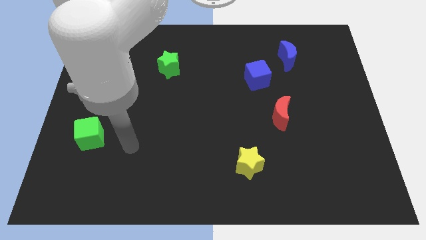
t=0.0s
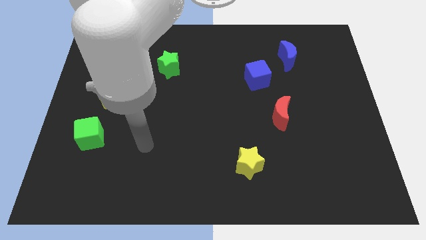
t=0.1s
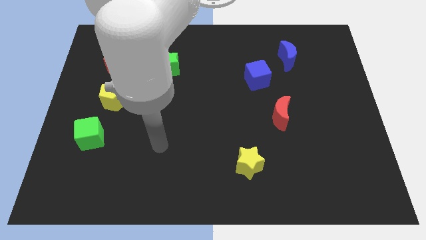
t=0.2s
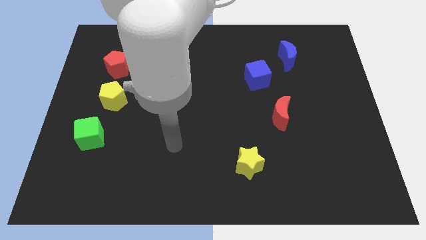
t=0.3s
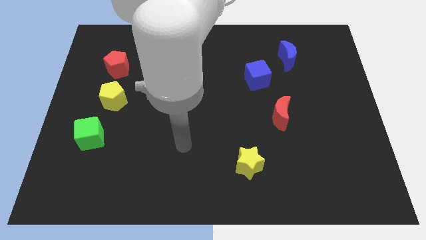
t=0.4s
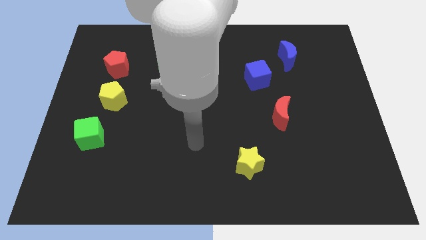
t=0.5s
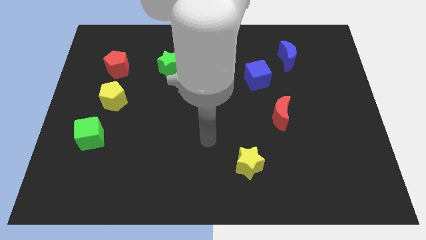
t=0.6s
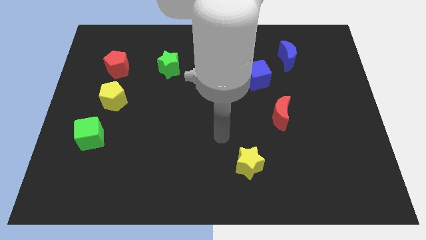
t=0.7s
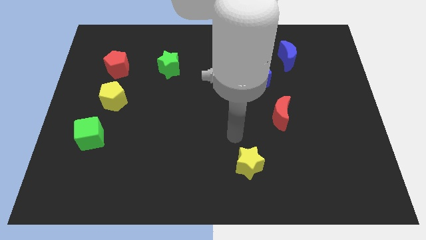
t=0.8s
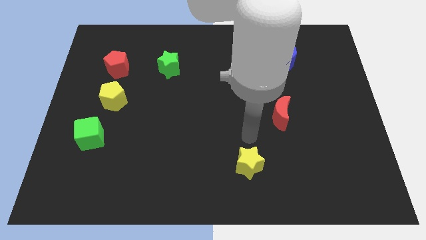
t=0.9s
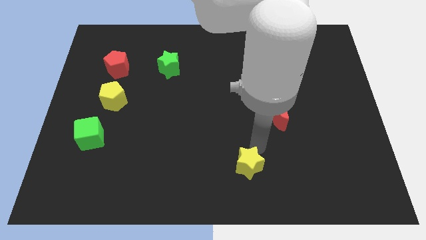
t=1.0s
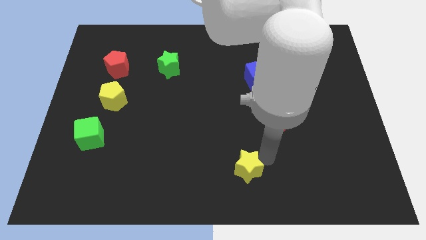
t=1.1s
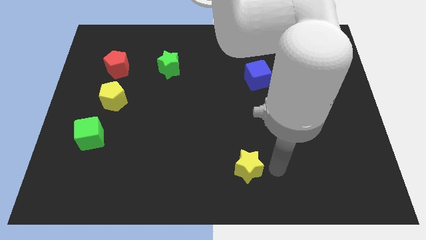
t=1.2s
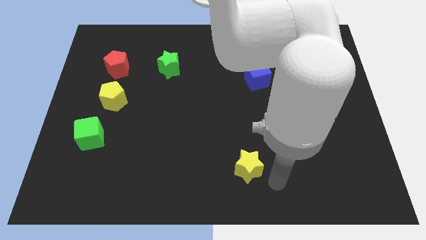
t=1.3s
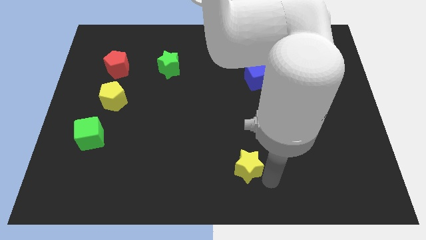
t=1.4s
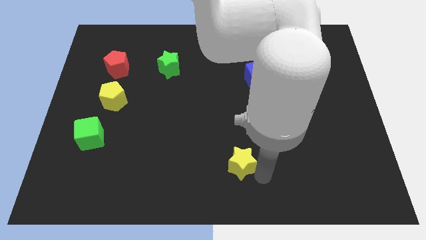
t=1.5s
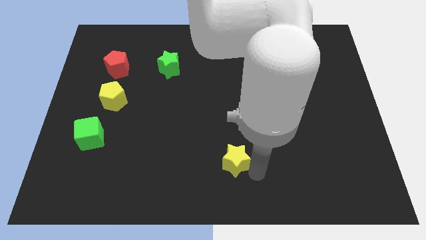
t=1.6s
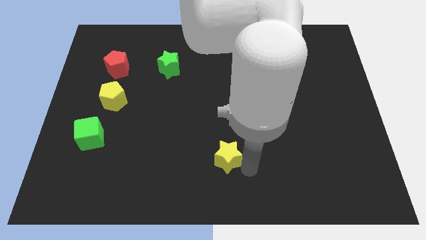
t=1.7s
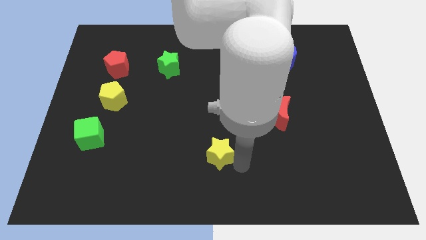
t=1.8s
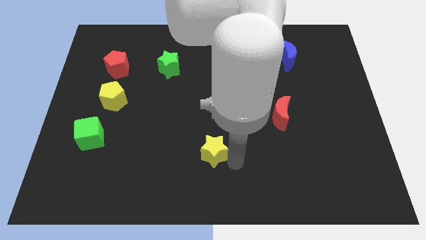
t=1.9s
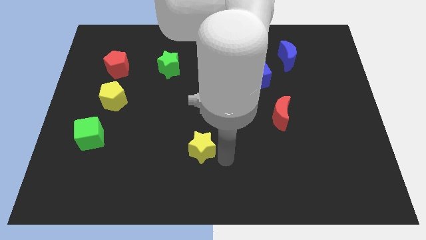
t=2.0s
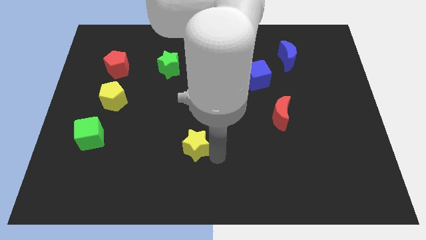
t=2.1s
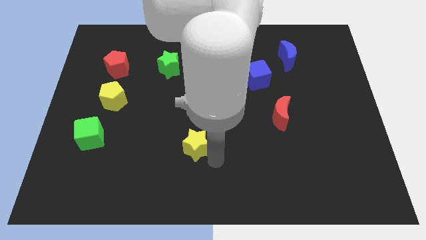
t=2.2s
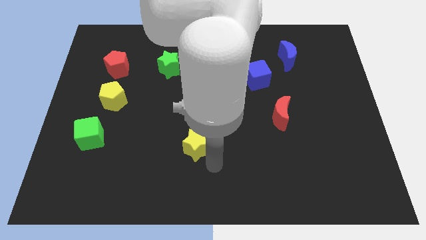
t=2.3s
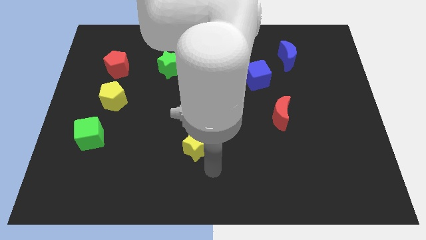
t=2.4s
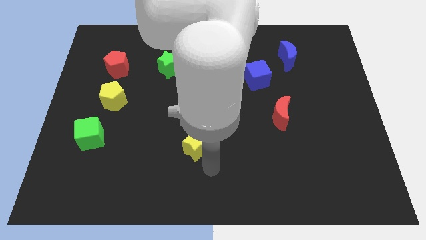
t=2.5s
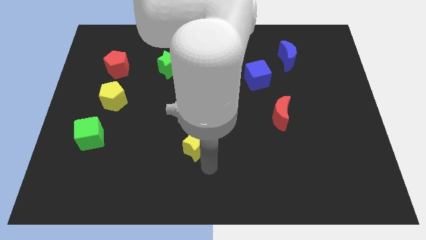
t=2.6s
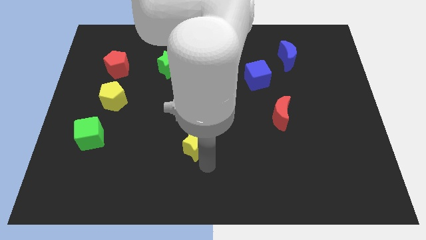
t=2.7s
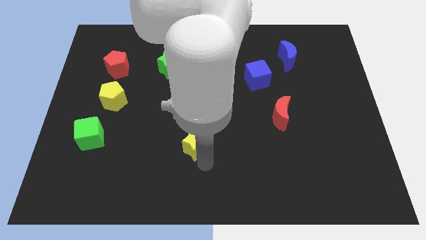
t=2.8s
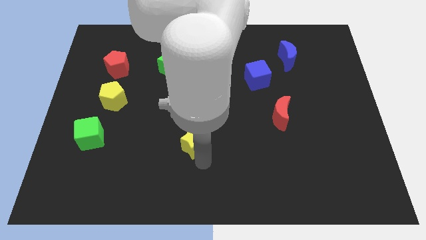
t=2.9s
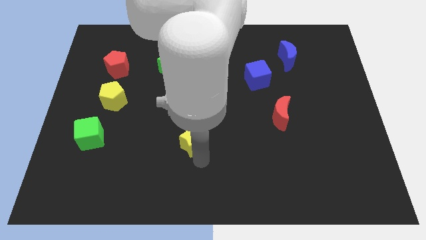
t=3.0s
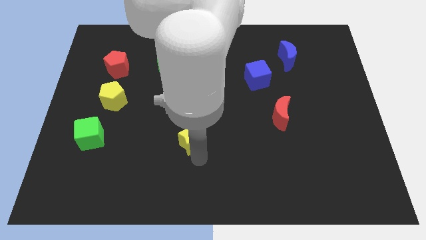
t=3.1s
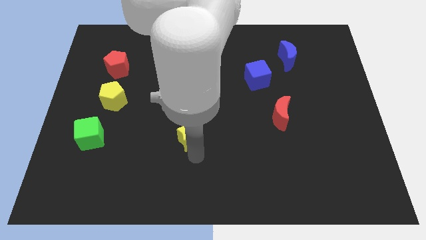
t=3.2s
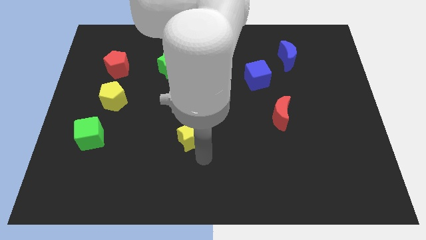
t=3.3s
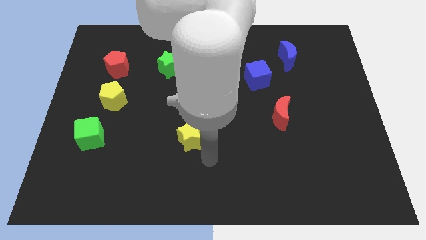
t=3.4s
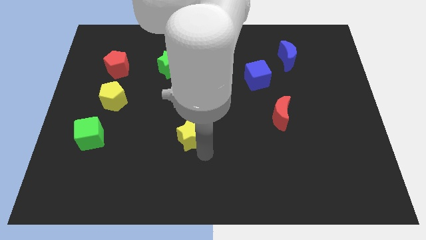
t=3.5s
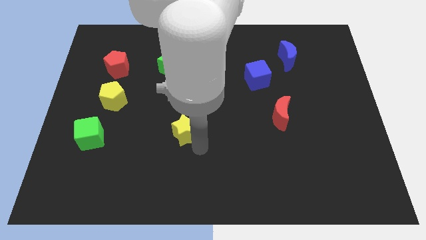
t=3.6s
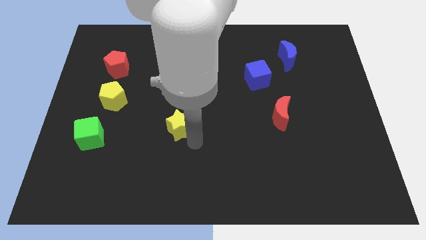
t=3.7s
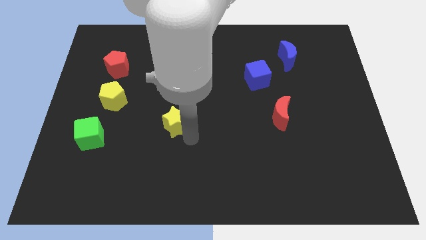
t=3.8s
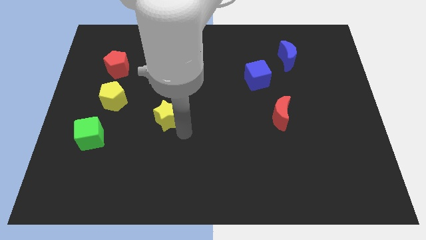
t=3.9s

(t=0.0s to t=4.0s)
move the yellow star upwards and then to the left

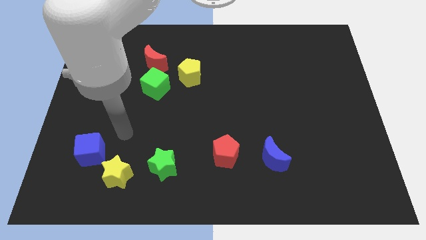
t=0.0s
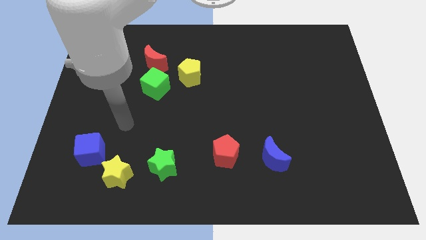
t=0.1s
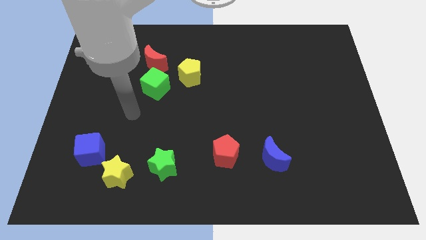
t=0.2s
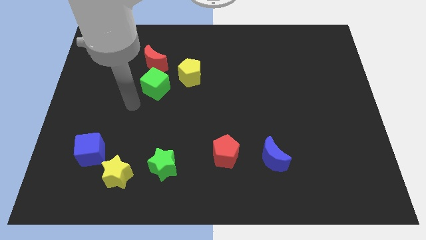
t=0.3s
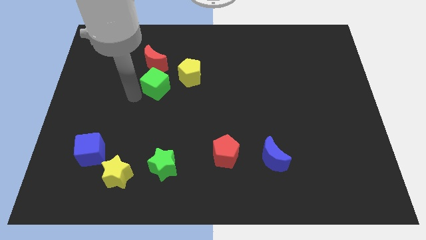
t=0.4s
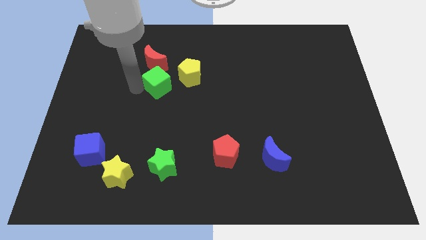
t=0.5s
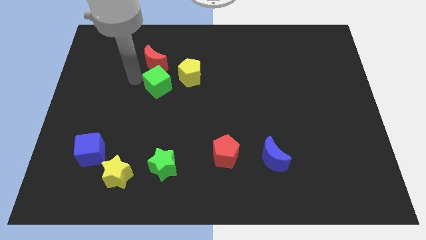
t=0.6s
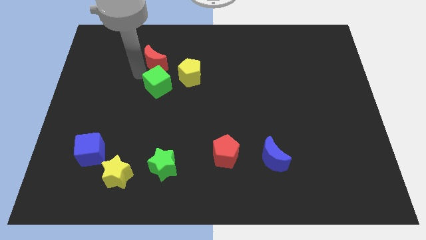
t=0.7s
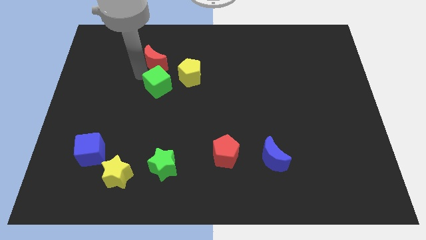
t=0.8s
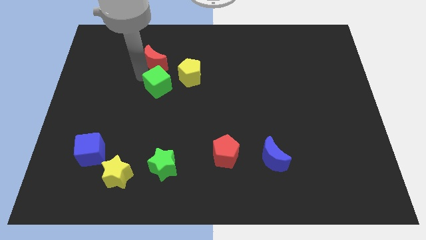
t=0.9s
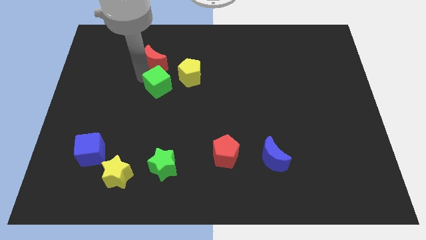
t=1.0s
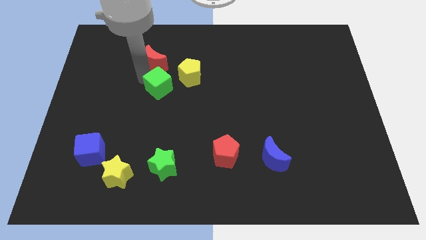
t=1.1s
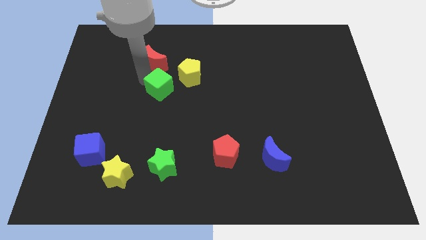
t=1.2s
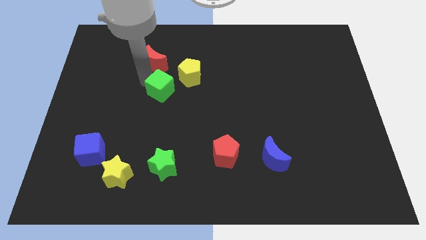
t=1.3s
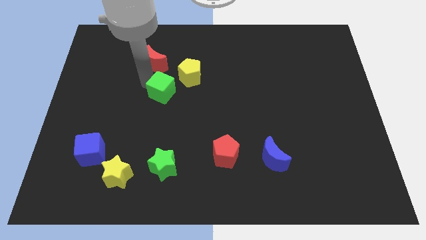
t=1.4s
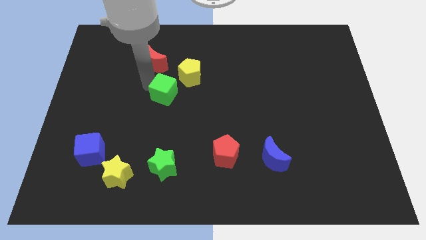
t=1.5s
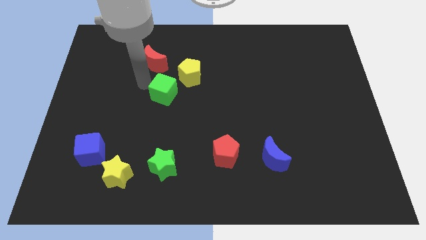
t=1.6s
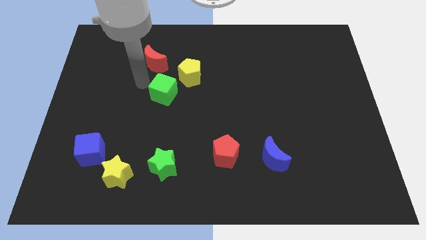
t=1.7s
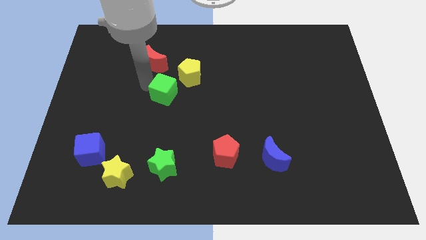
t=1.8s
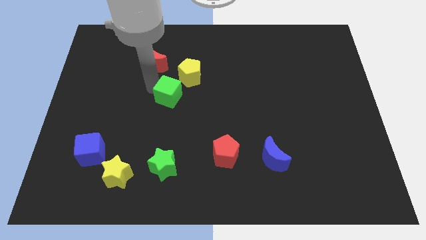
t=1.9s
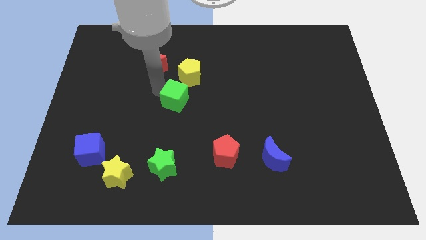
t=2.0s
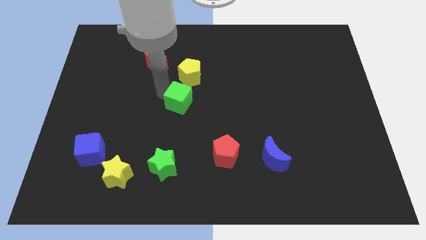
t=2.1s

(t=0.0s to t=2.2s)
slightly push the green cube downwards and right

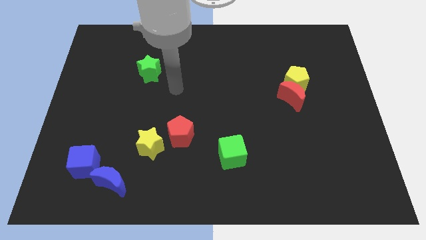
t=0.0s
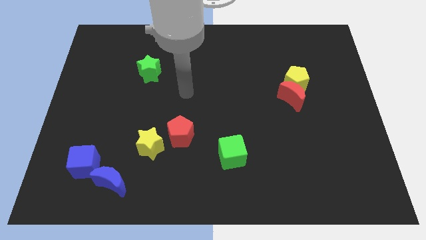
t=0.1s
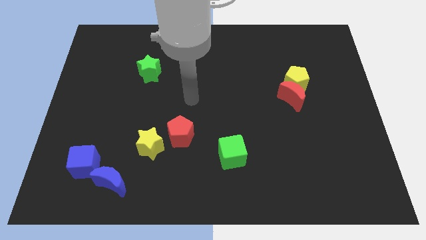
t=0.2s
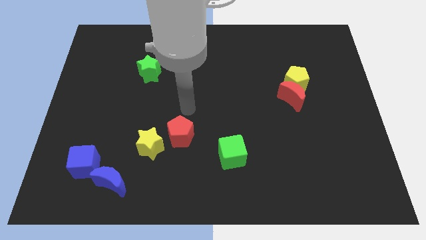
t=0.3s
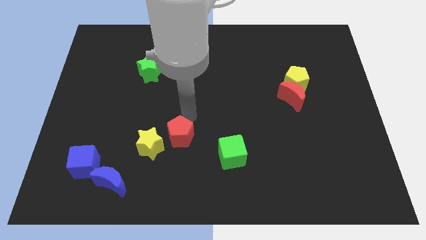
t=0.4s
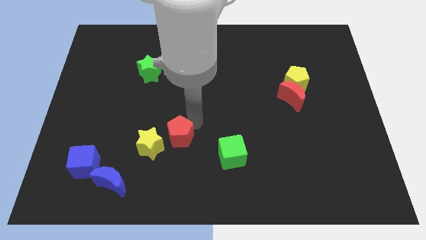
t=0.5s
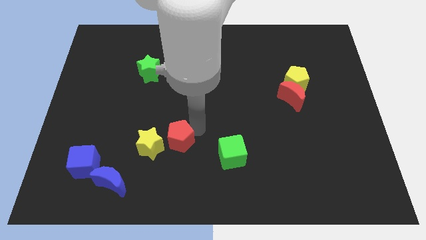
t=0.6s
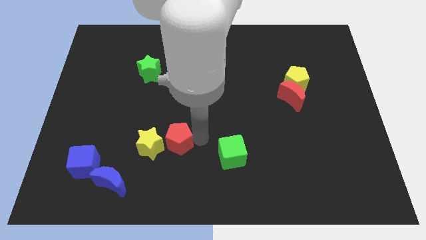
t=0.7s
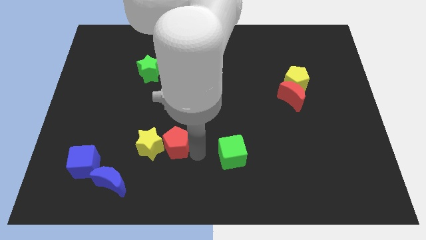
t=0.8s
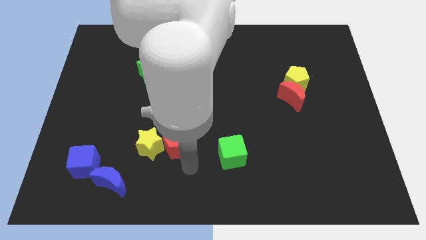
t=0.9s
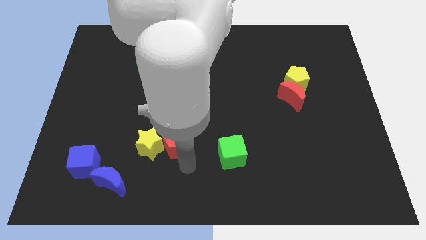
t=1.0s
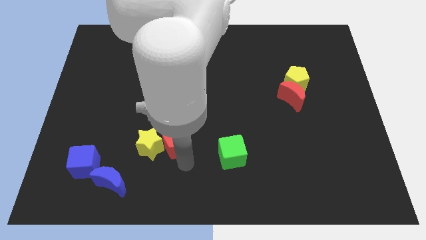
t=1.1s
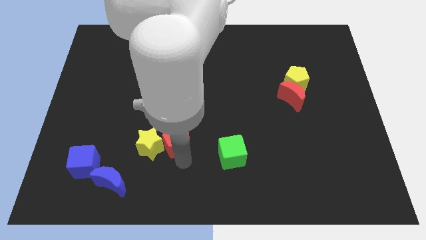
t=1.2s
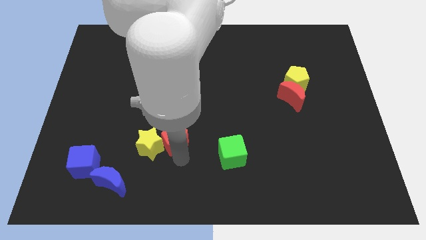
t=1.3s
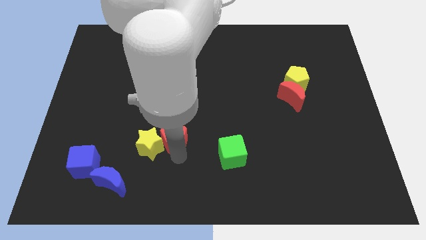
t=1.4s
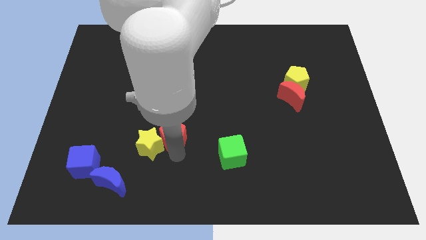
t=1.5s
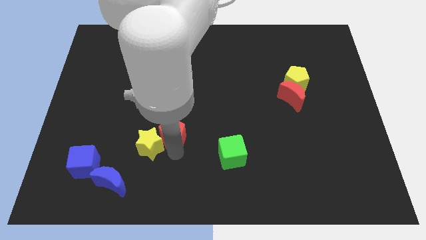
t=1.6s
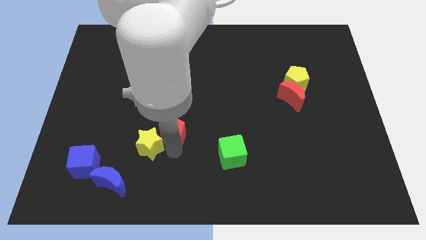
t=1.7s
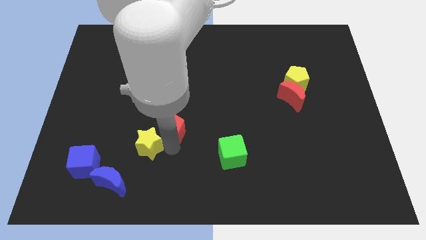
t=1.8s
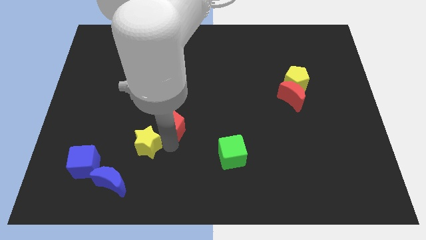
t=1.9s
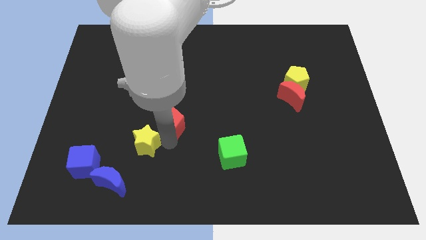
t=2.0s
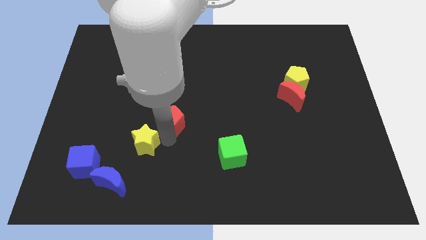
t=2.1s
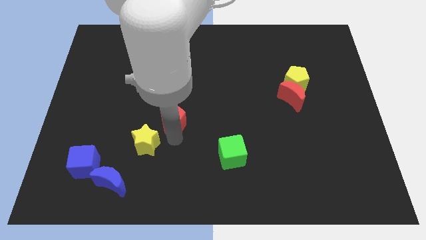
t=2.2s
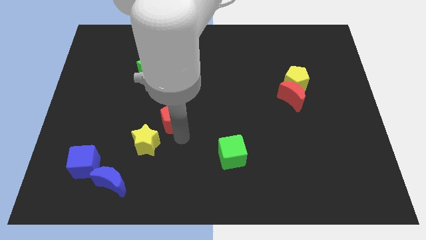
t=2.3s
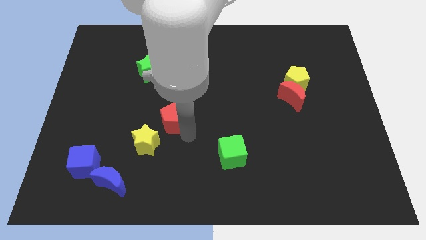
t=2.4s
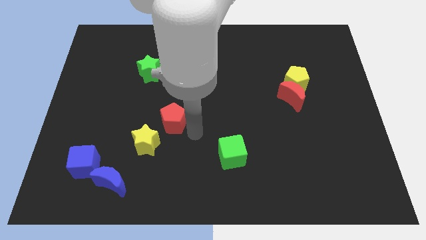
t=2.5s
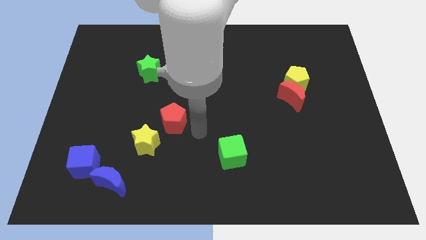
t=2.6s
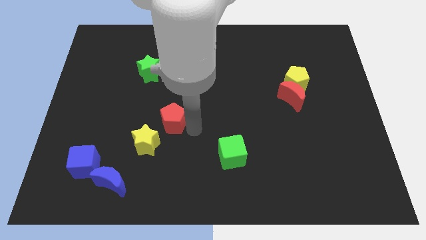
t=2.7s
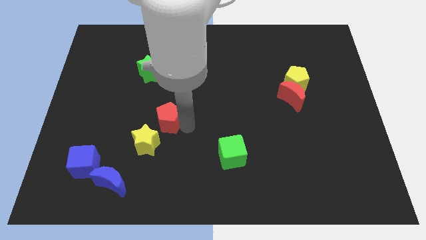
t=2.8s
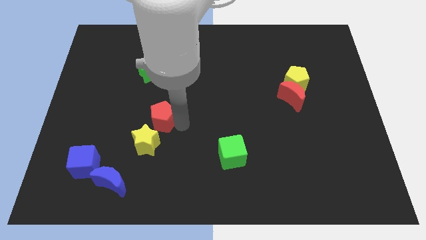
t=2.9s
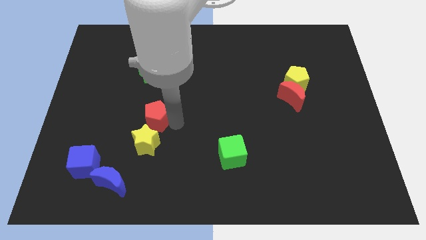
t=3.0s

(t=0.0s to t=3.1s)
push the red pentagon upwards and then left slightly
